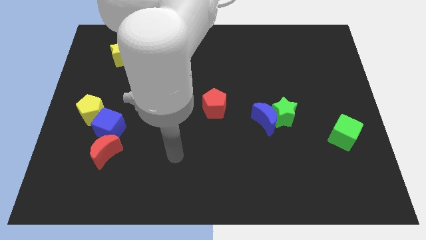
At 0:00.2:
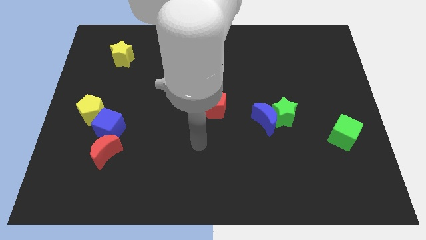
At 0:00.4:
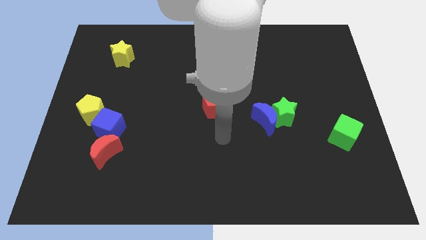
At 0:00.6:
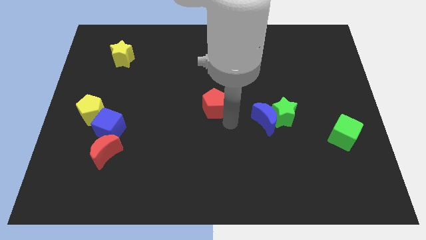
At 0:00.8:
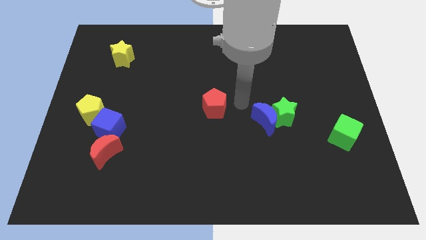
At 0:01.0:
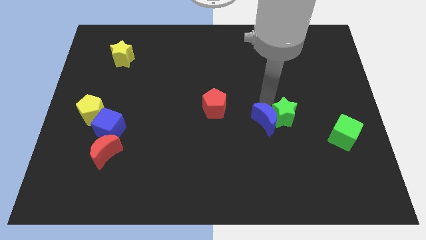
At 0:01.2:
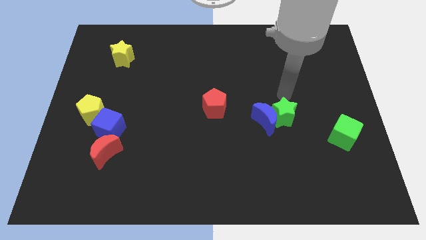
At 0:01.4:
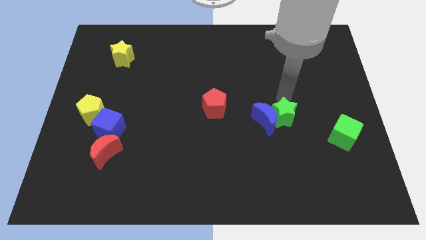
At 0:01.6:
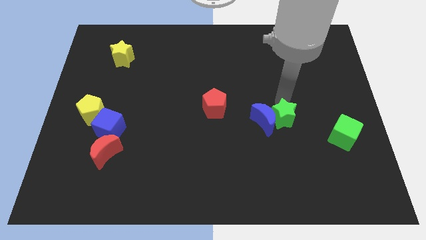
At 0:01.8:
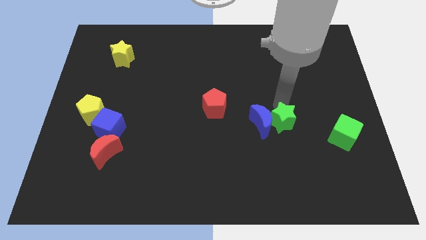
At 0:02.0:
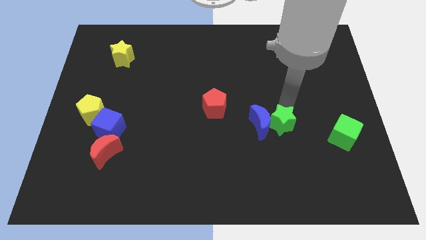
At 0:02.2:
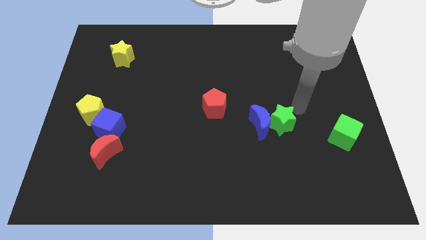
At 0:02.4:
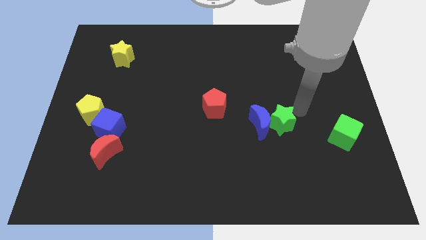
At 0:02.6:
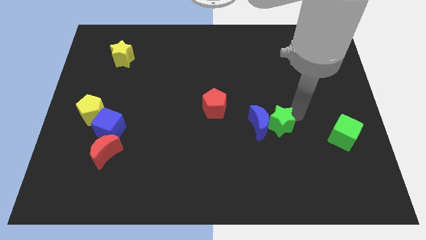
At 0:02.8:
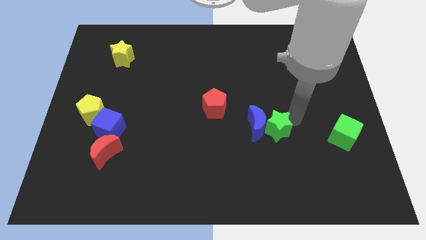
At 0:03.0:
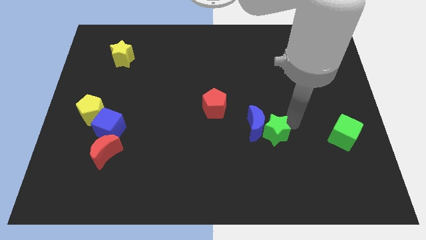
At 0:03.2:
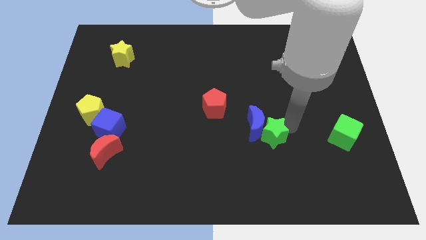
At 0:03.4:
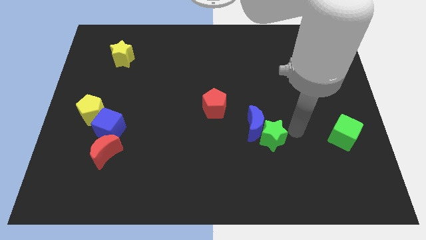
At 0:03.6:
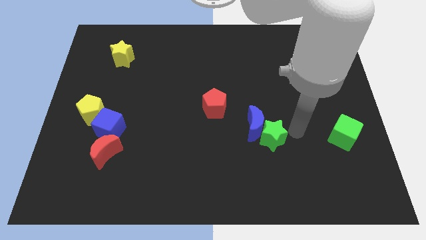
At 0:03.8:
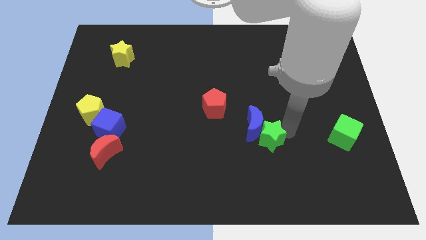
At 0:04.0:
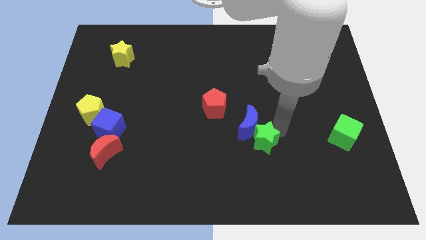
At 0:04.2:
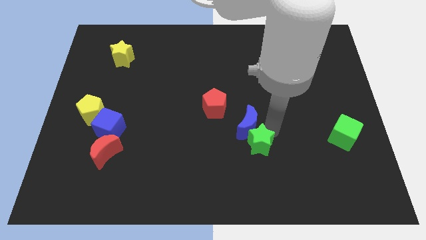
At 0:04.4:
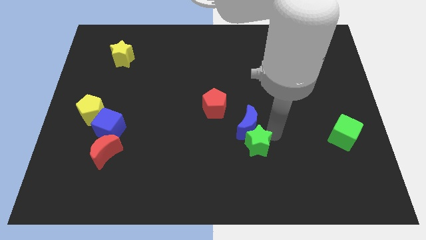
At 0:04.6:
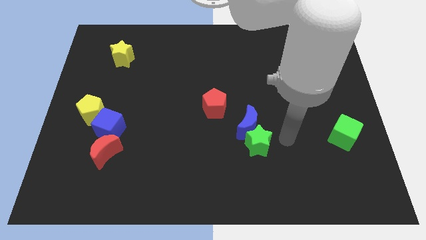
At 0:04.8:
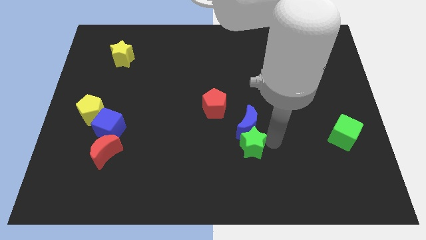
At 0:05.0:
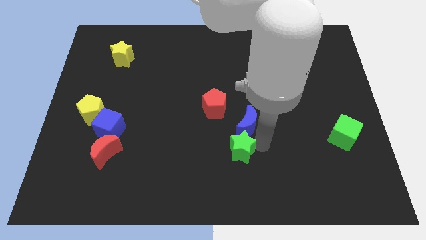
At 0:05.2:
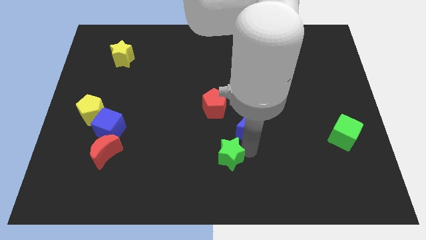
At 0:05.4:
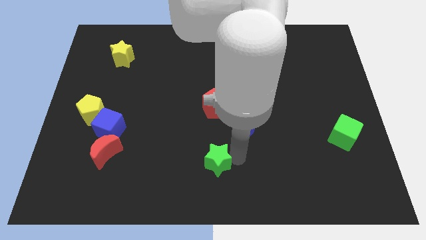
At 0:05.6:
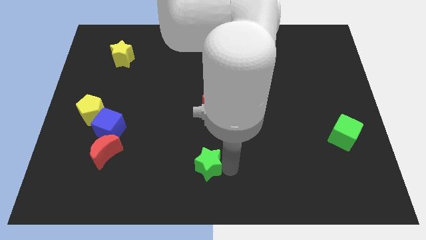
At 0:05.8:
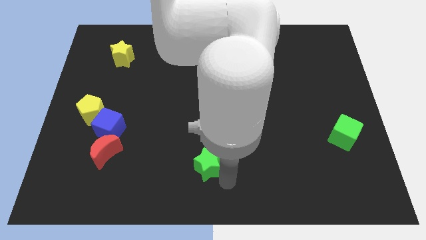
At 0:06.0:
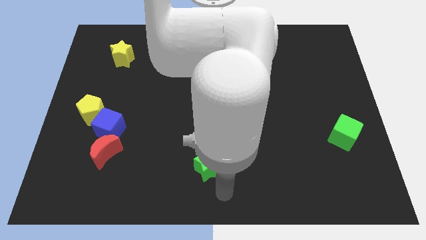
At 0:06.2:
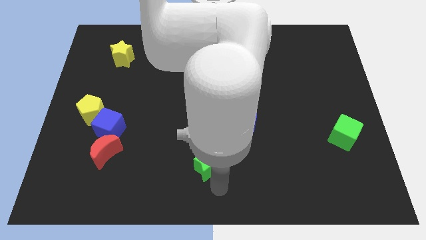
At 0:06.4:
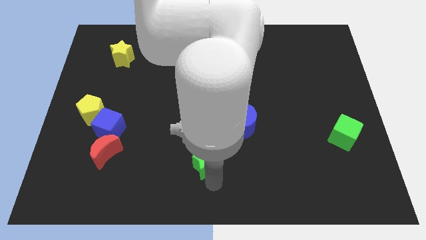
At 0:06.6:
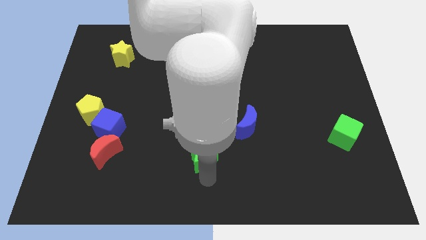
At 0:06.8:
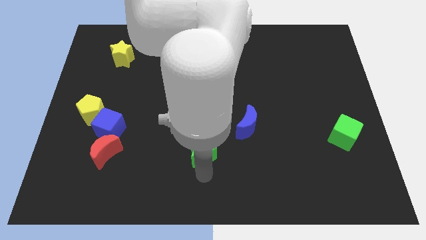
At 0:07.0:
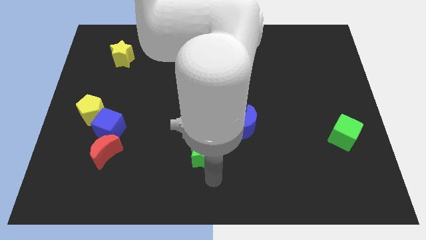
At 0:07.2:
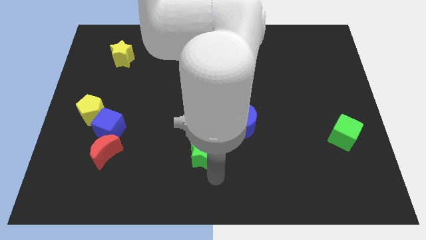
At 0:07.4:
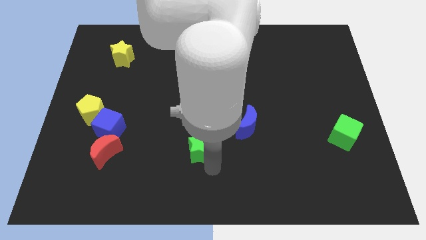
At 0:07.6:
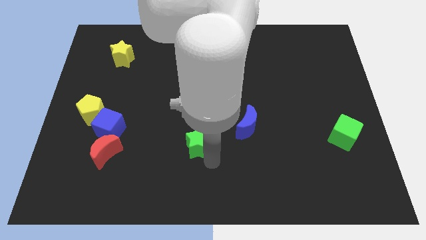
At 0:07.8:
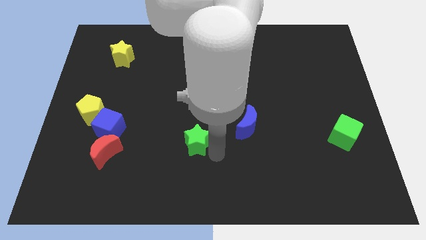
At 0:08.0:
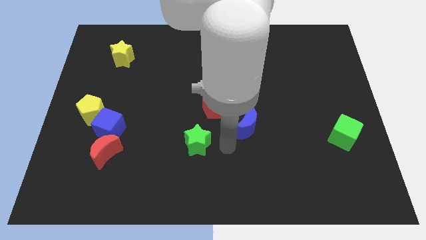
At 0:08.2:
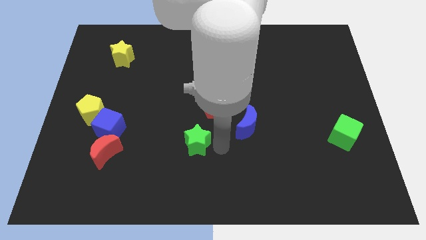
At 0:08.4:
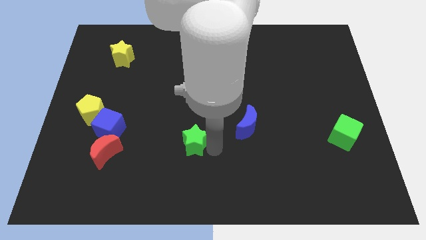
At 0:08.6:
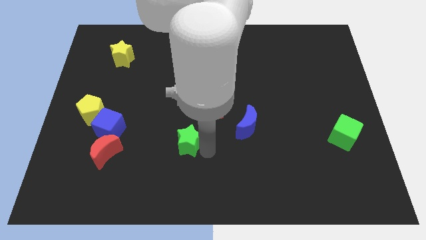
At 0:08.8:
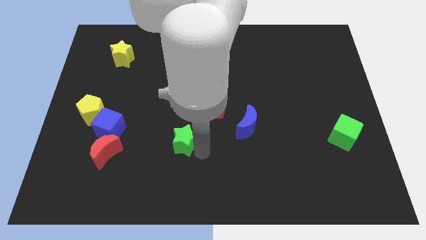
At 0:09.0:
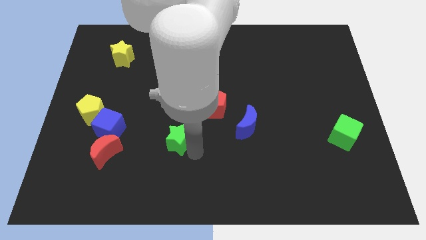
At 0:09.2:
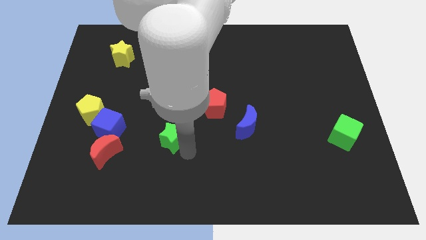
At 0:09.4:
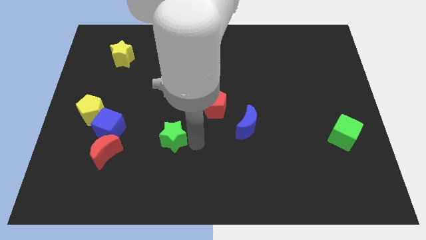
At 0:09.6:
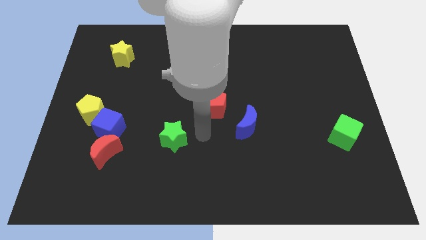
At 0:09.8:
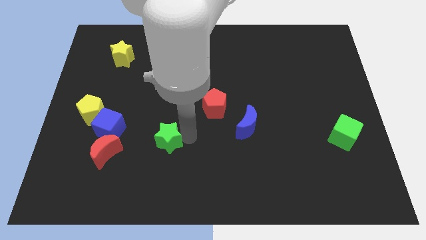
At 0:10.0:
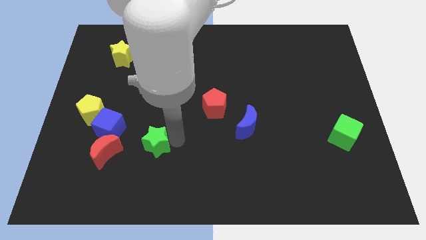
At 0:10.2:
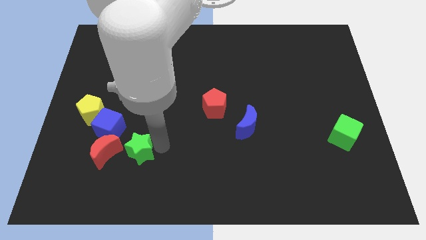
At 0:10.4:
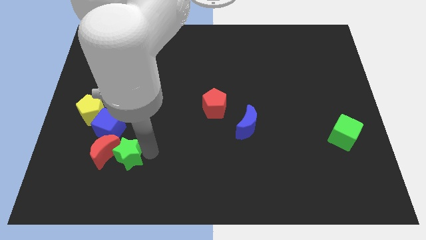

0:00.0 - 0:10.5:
put the green star to the red moon

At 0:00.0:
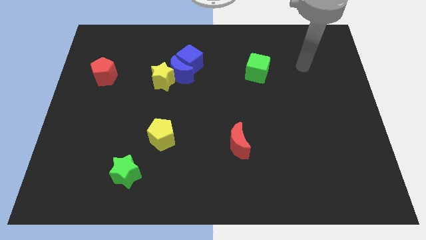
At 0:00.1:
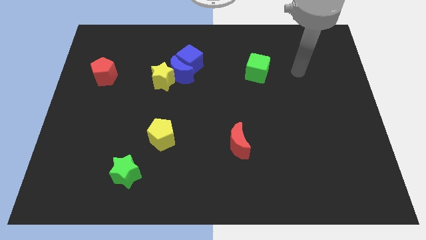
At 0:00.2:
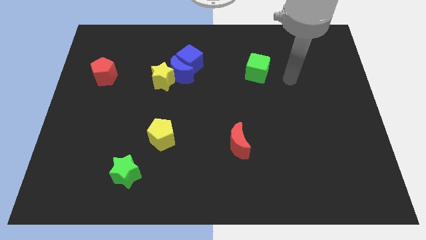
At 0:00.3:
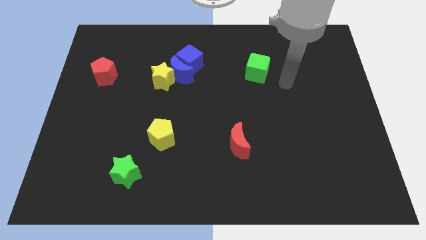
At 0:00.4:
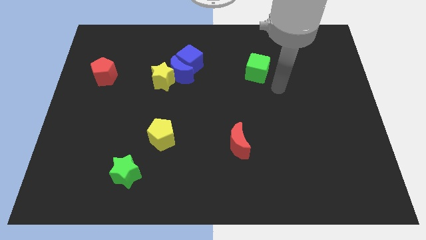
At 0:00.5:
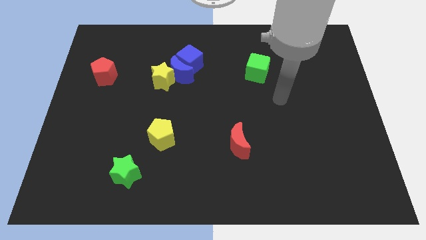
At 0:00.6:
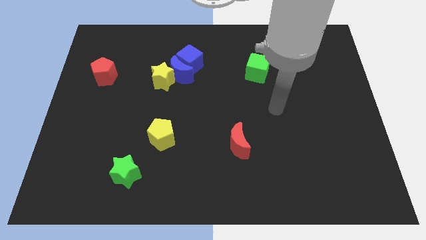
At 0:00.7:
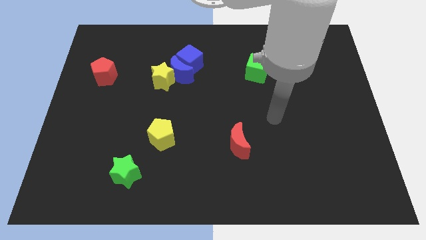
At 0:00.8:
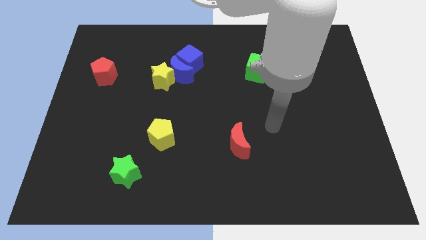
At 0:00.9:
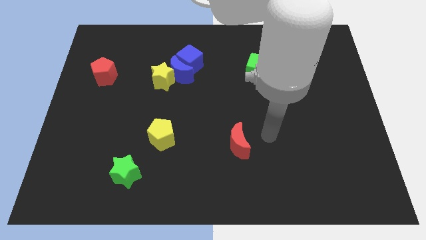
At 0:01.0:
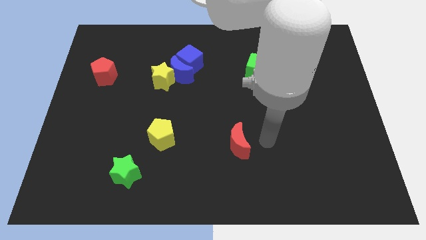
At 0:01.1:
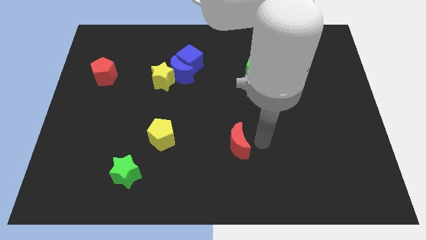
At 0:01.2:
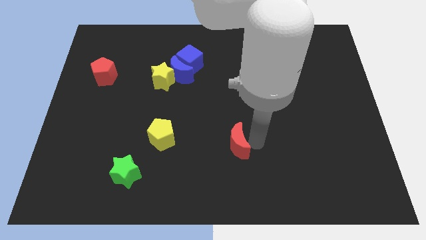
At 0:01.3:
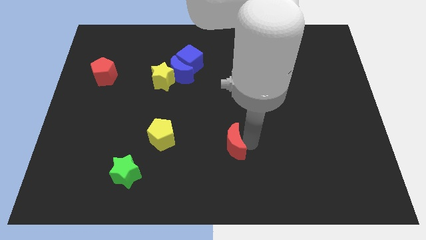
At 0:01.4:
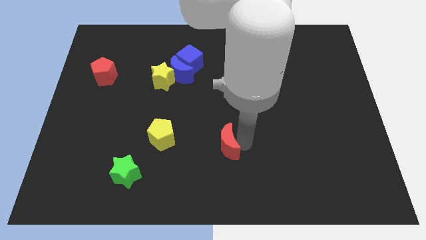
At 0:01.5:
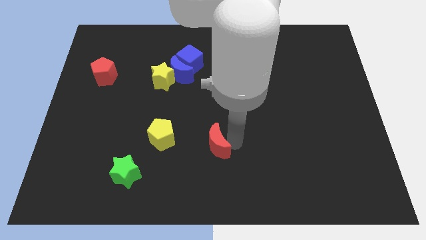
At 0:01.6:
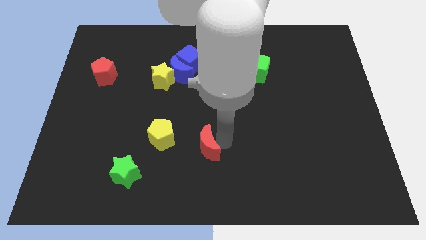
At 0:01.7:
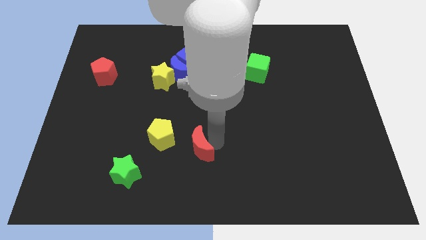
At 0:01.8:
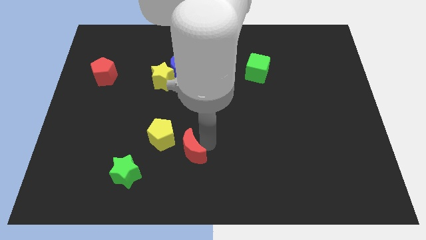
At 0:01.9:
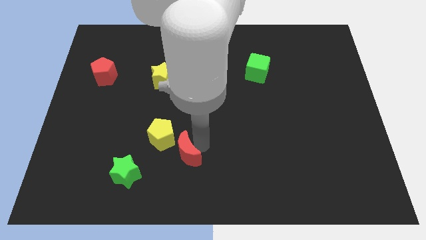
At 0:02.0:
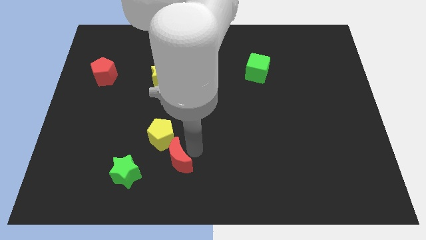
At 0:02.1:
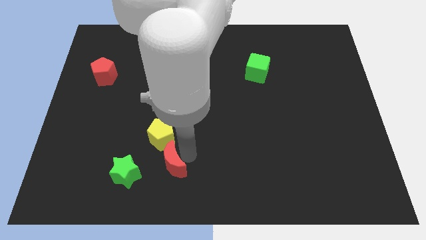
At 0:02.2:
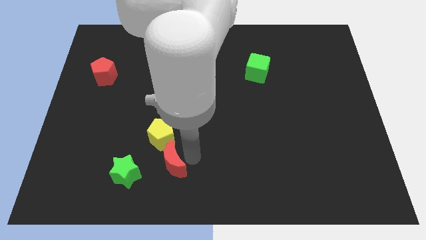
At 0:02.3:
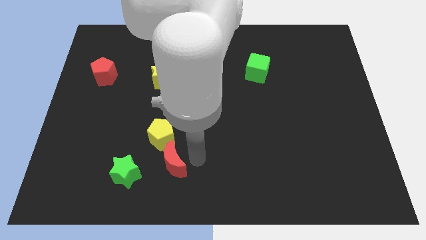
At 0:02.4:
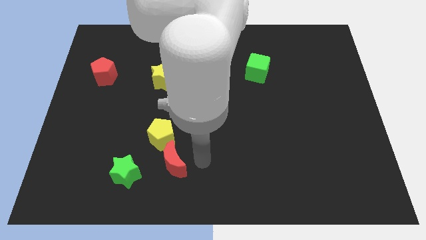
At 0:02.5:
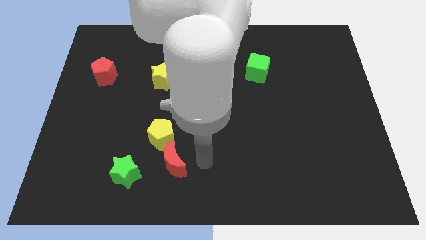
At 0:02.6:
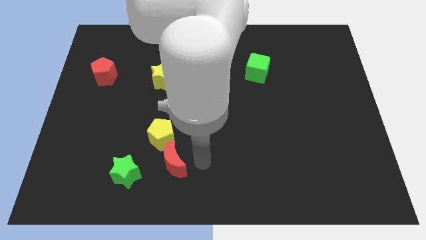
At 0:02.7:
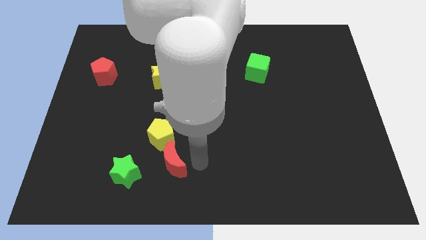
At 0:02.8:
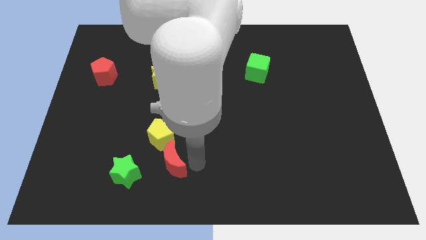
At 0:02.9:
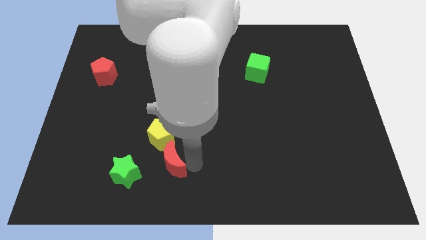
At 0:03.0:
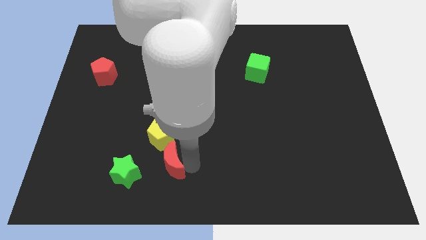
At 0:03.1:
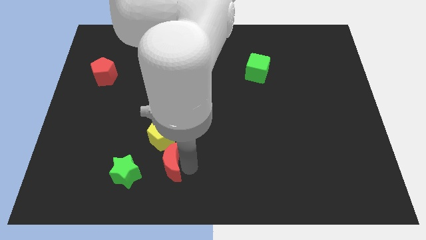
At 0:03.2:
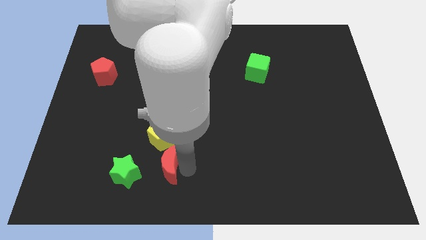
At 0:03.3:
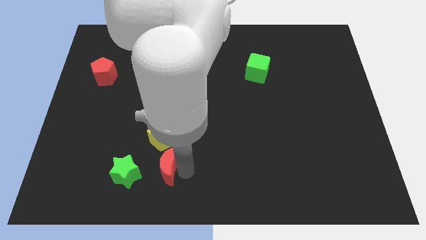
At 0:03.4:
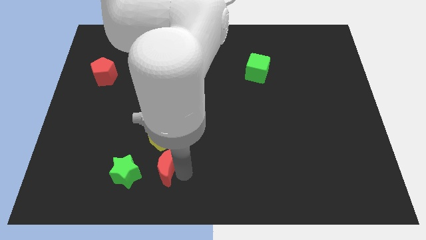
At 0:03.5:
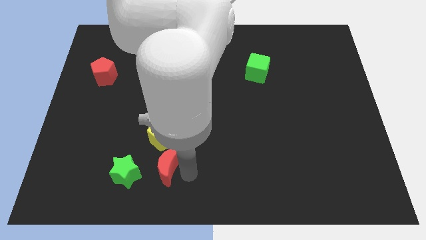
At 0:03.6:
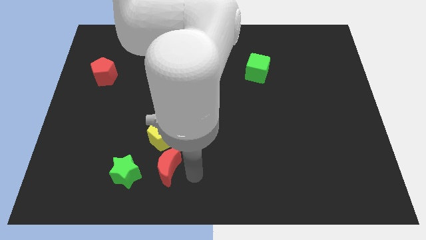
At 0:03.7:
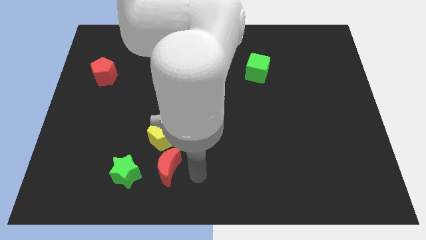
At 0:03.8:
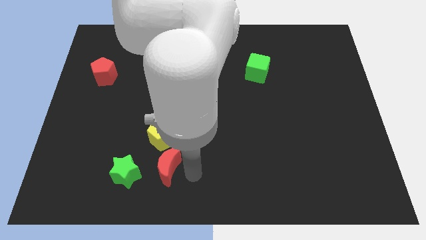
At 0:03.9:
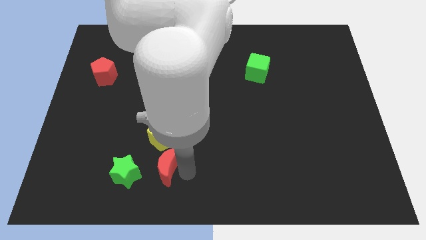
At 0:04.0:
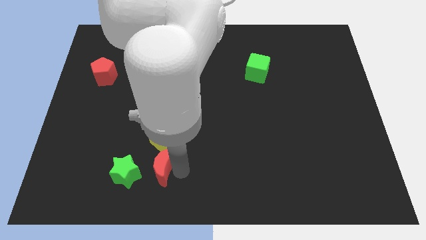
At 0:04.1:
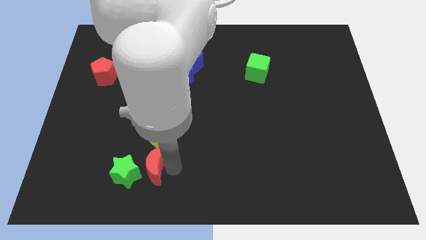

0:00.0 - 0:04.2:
move the red moon towards the green star
